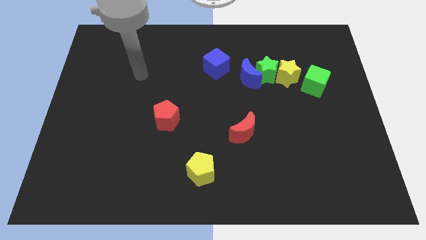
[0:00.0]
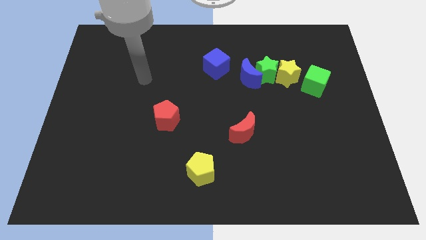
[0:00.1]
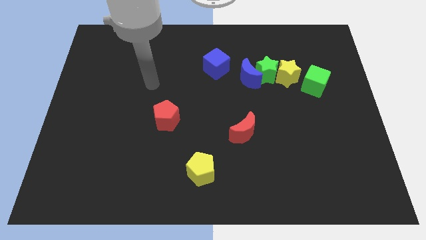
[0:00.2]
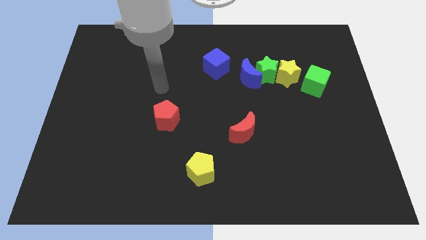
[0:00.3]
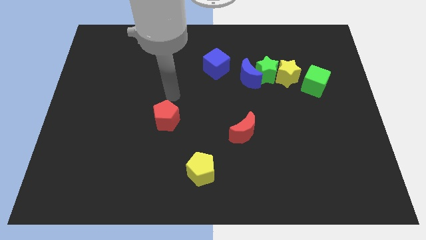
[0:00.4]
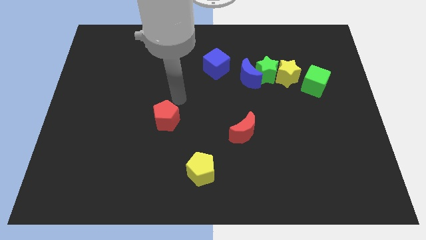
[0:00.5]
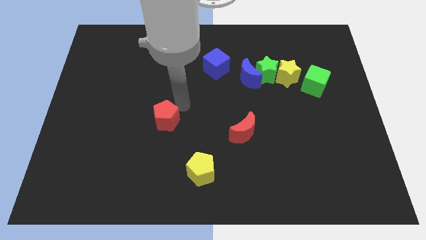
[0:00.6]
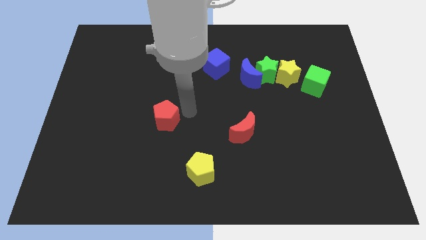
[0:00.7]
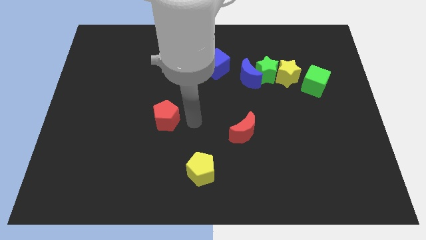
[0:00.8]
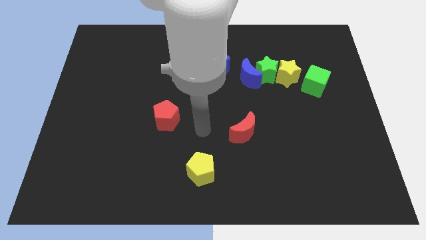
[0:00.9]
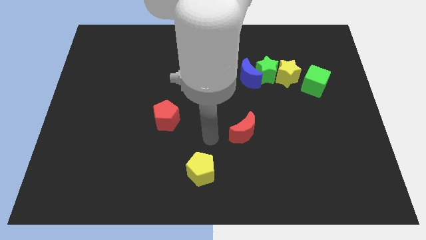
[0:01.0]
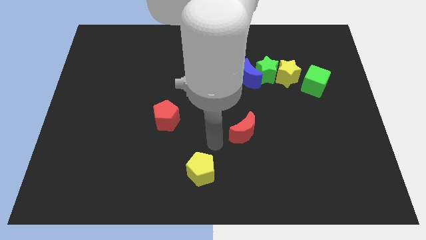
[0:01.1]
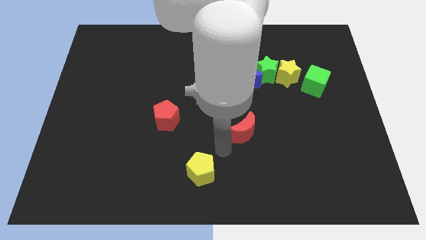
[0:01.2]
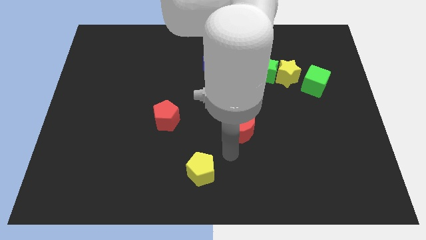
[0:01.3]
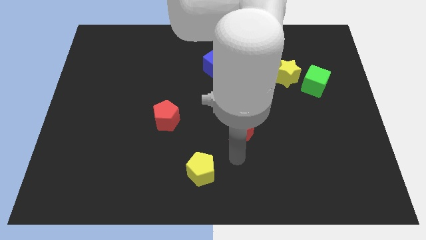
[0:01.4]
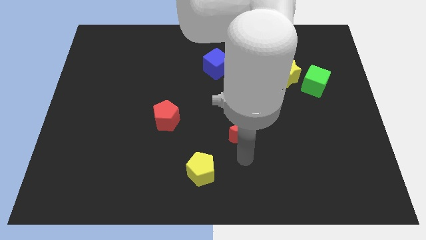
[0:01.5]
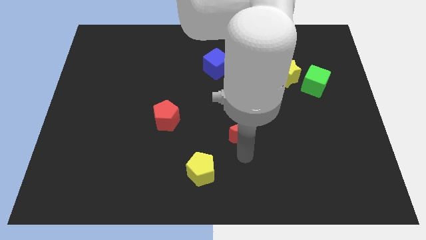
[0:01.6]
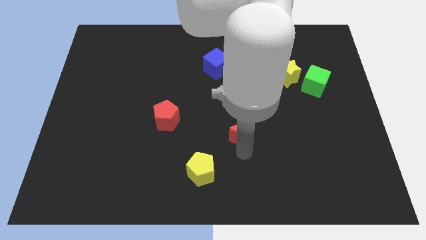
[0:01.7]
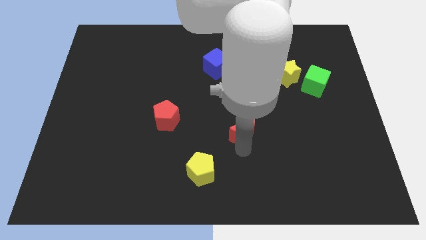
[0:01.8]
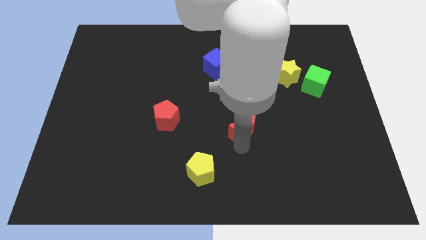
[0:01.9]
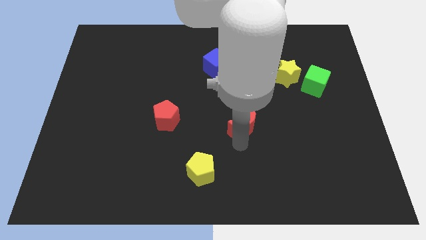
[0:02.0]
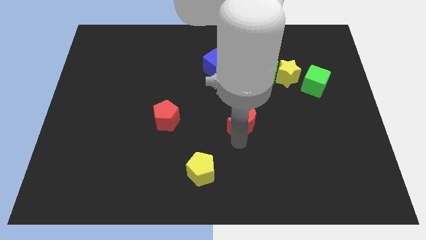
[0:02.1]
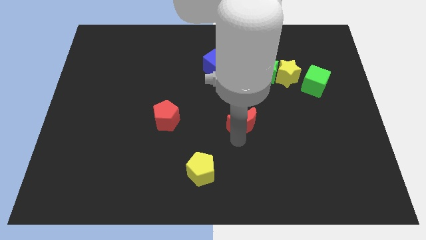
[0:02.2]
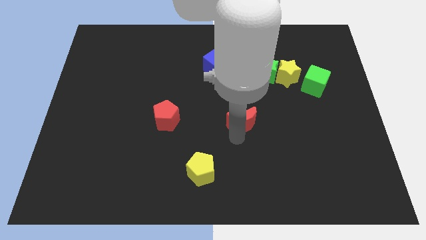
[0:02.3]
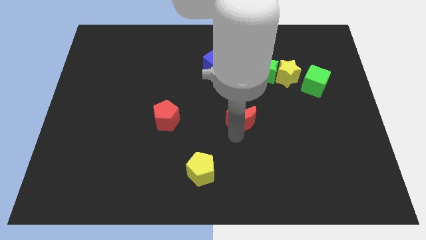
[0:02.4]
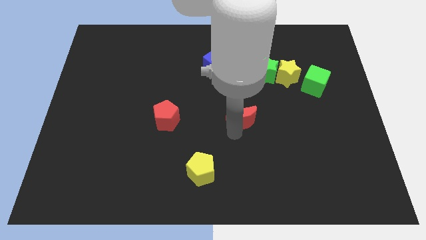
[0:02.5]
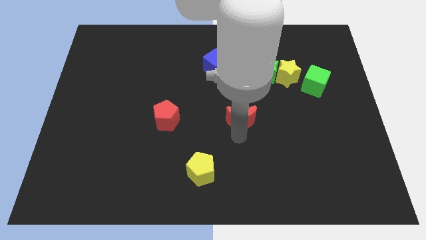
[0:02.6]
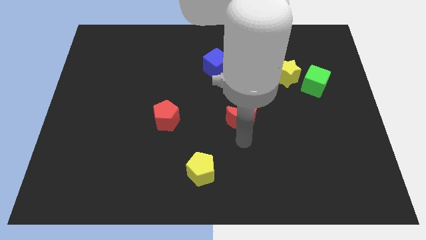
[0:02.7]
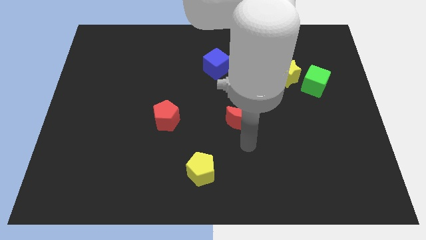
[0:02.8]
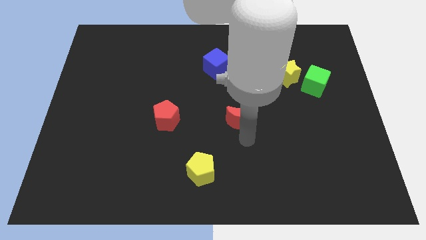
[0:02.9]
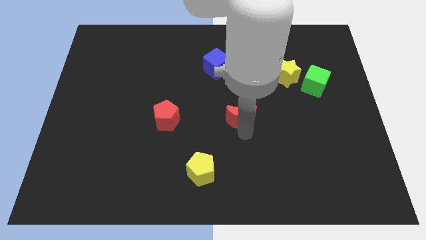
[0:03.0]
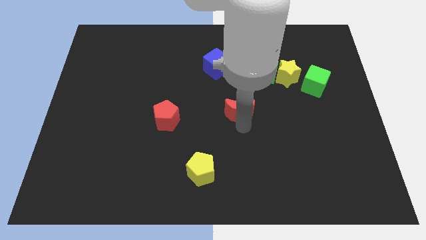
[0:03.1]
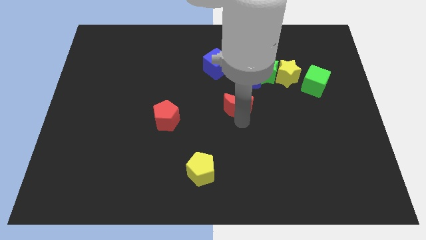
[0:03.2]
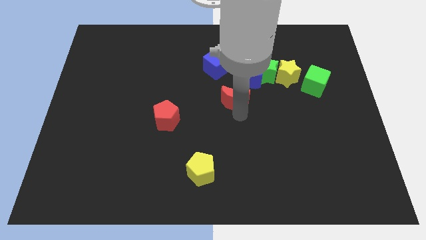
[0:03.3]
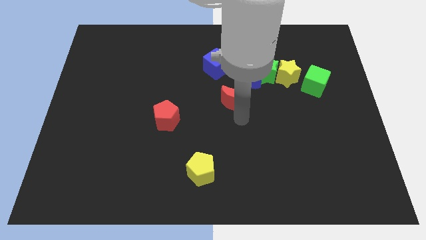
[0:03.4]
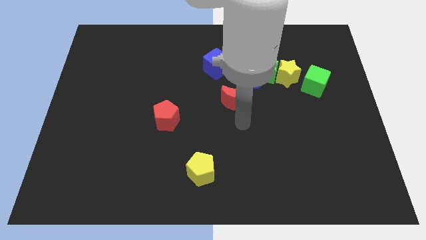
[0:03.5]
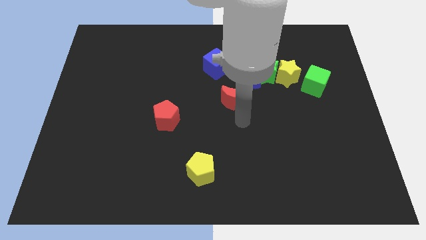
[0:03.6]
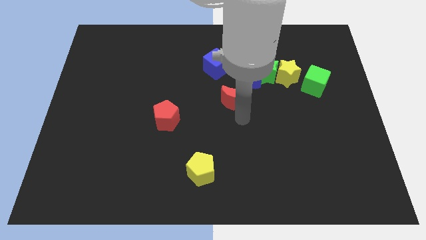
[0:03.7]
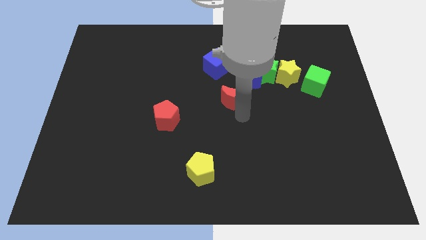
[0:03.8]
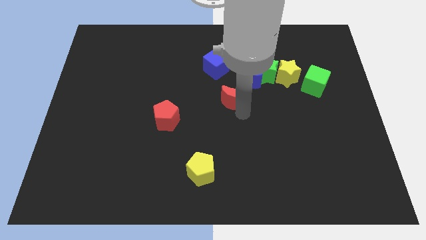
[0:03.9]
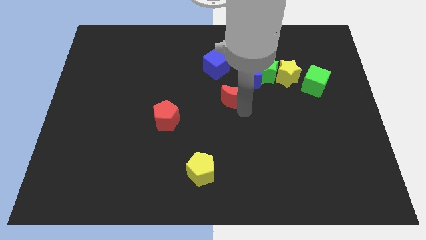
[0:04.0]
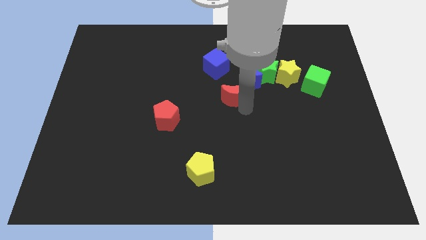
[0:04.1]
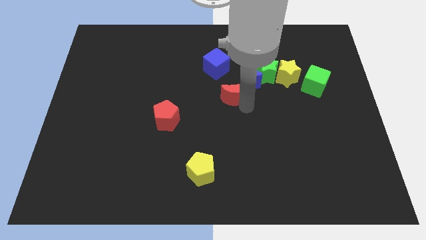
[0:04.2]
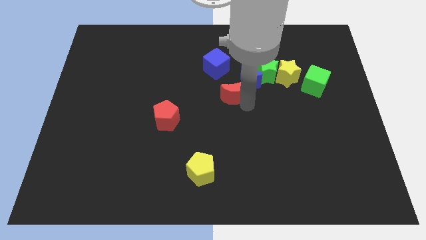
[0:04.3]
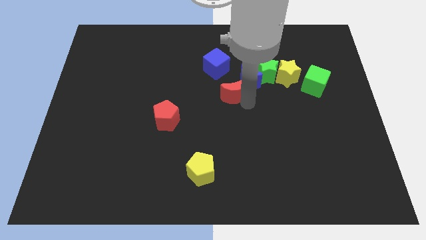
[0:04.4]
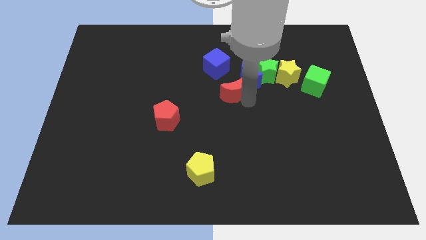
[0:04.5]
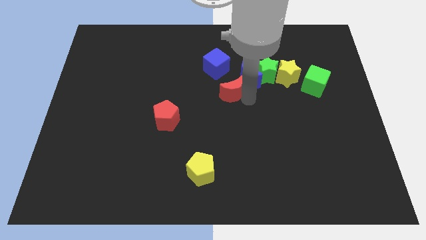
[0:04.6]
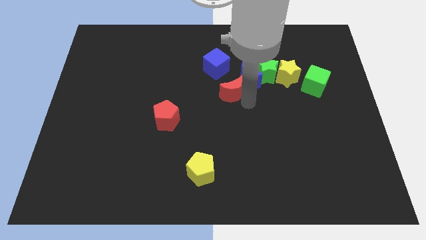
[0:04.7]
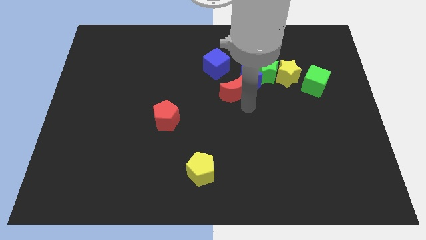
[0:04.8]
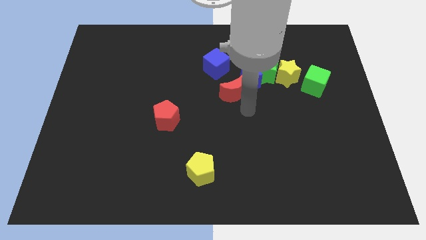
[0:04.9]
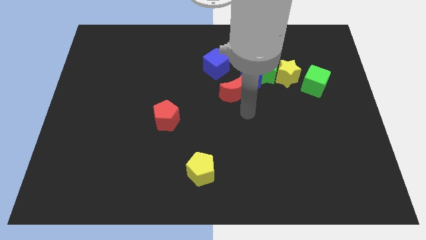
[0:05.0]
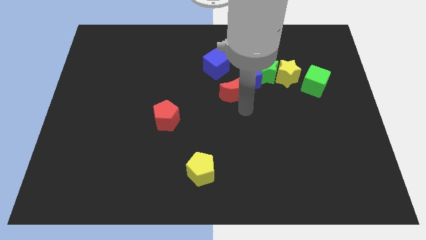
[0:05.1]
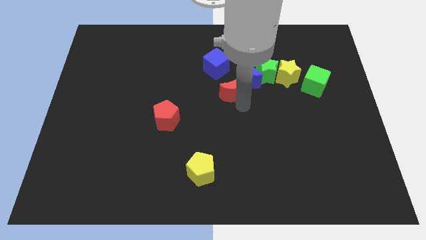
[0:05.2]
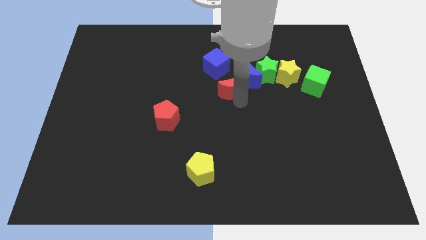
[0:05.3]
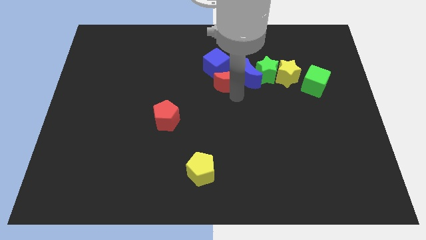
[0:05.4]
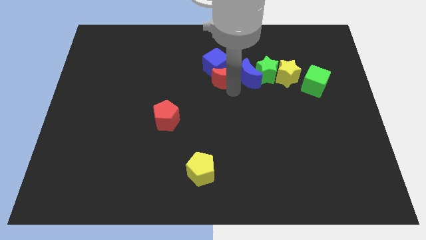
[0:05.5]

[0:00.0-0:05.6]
put the red moon next to the blue cube
